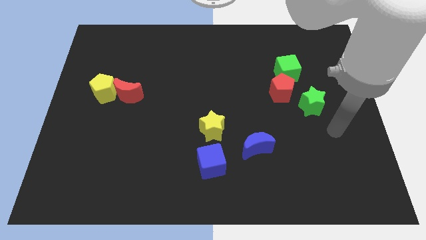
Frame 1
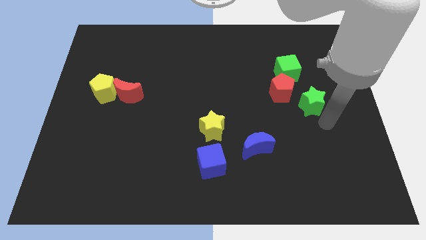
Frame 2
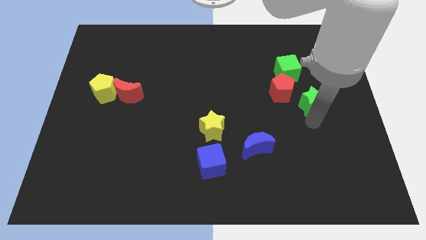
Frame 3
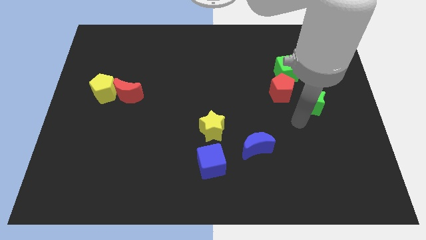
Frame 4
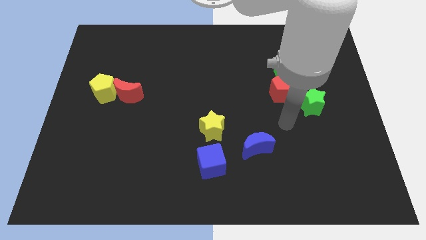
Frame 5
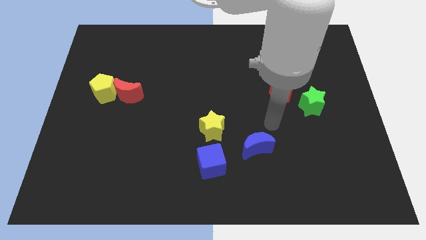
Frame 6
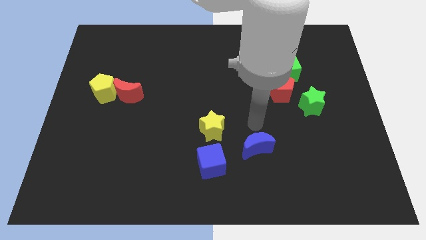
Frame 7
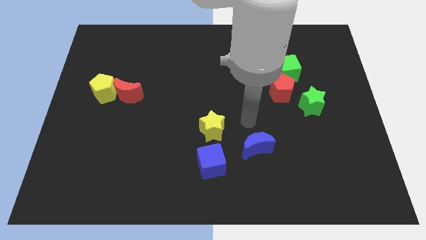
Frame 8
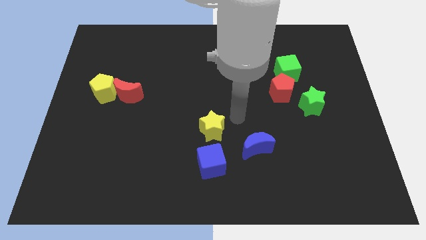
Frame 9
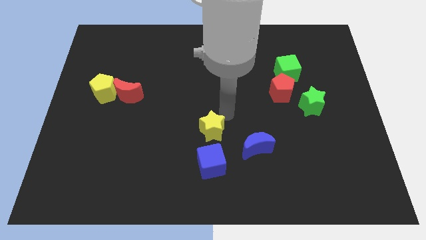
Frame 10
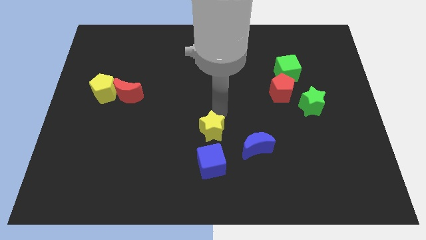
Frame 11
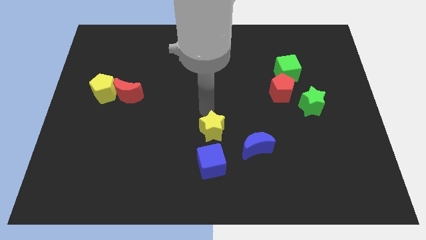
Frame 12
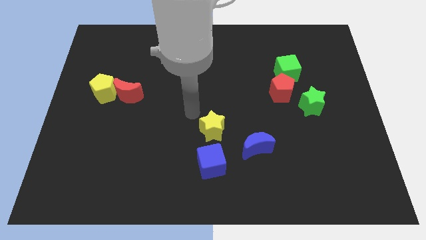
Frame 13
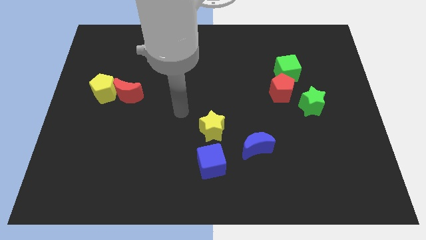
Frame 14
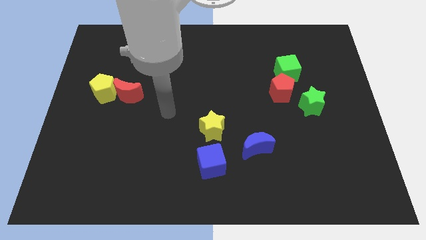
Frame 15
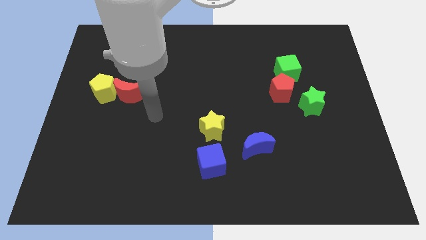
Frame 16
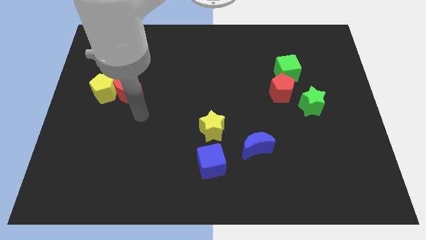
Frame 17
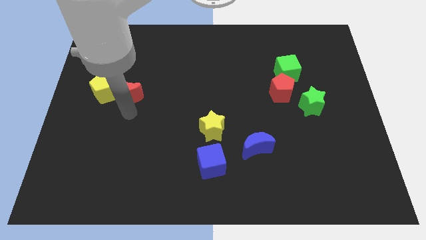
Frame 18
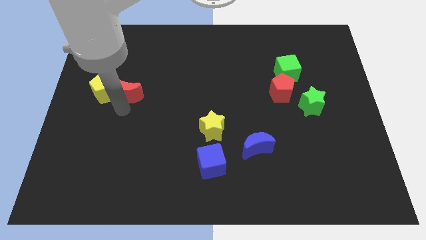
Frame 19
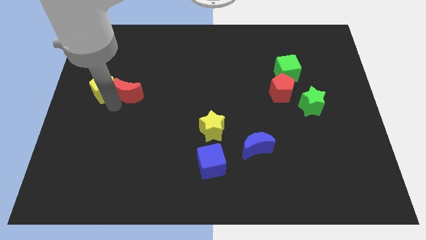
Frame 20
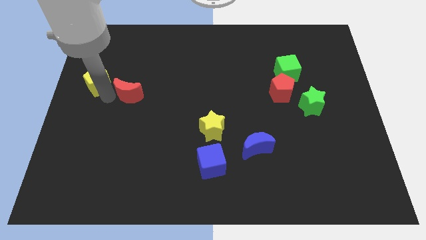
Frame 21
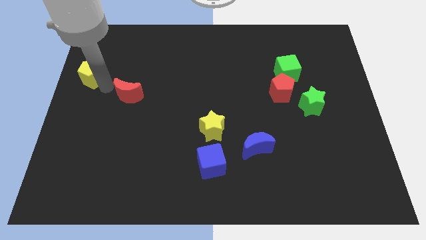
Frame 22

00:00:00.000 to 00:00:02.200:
separate the red moon from the yellow pentagon

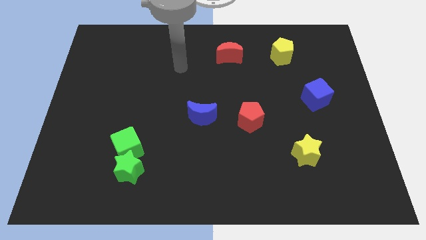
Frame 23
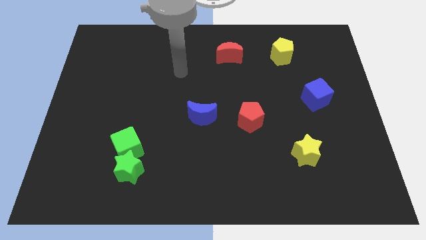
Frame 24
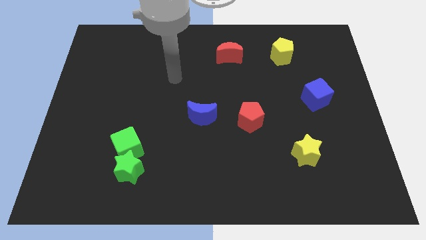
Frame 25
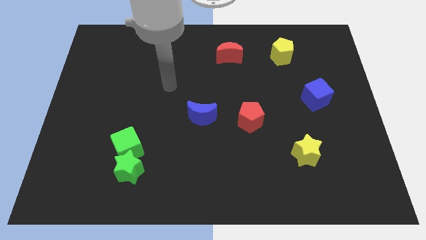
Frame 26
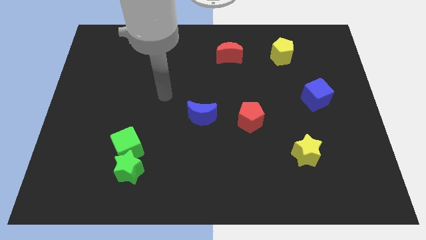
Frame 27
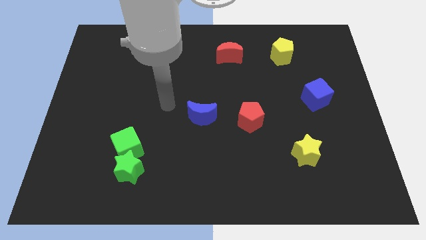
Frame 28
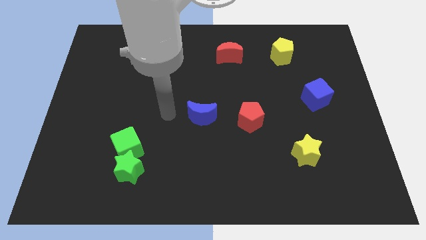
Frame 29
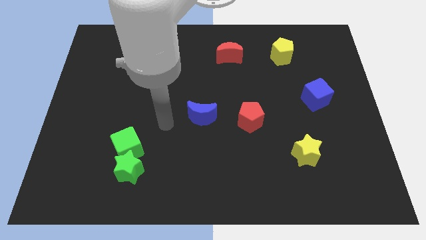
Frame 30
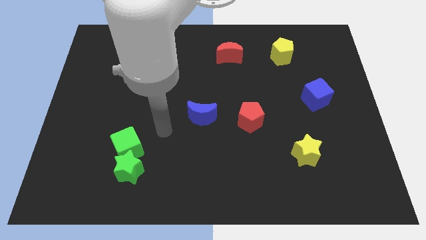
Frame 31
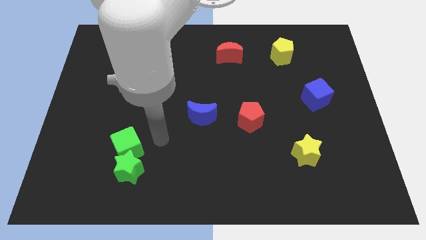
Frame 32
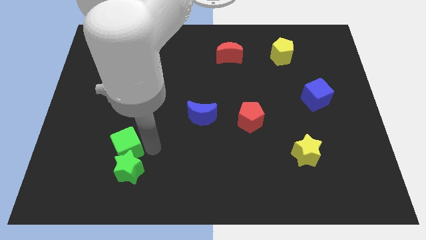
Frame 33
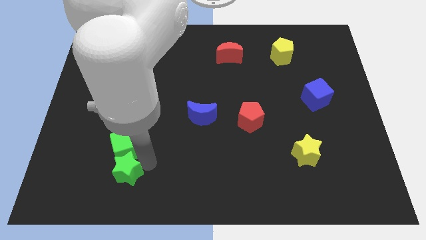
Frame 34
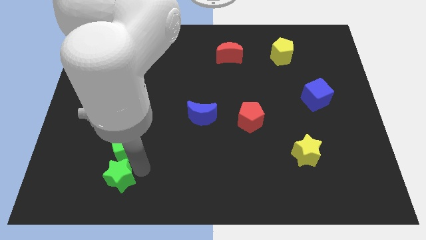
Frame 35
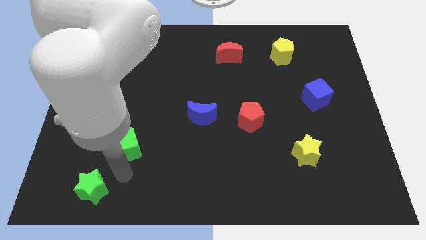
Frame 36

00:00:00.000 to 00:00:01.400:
move the green cube away from the green star

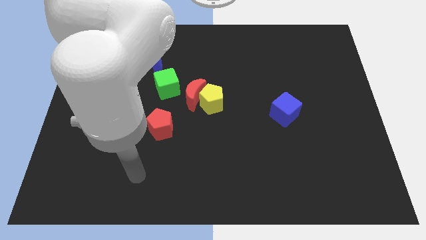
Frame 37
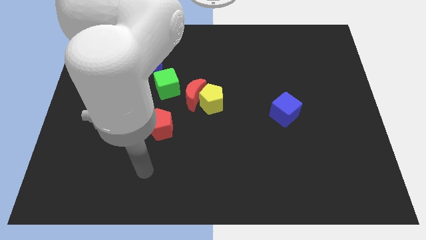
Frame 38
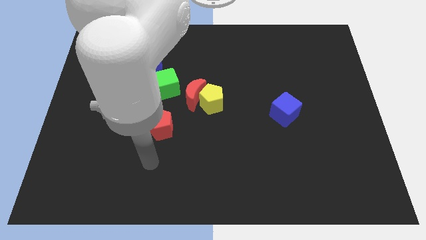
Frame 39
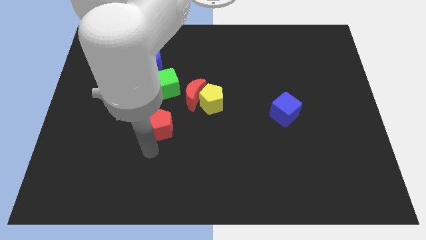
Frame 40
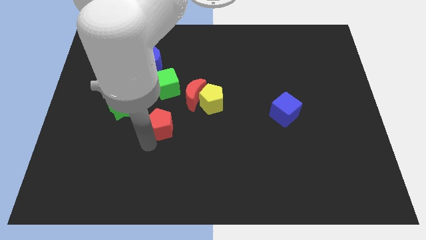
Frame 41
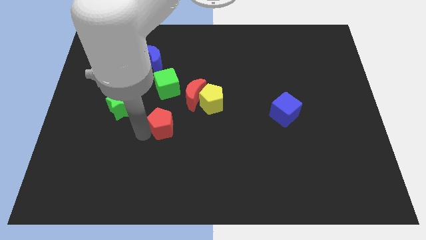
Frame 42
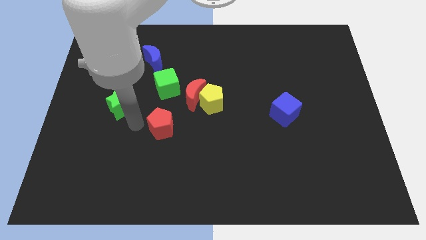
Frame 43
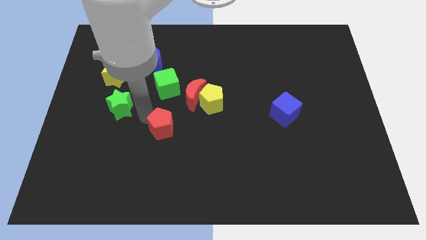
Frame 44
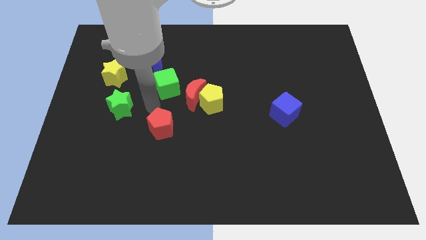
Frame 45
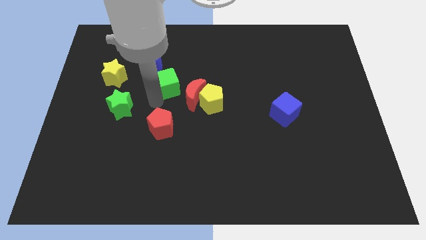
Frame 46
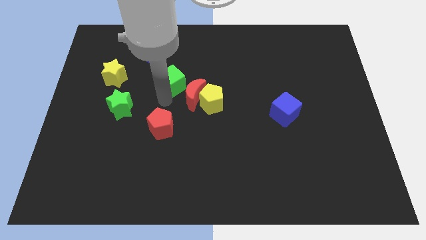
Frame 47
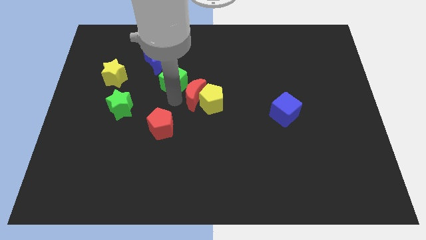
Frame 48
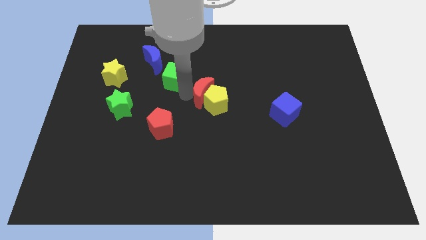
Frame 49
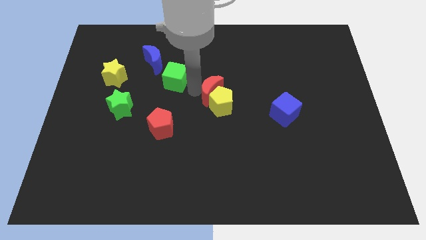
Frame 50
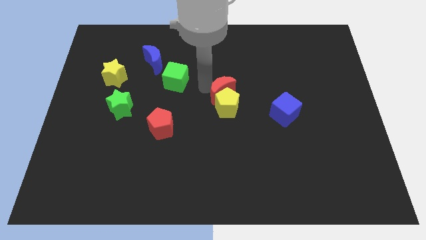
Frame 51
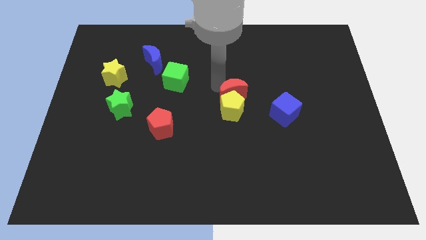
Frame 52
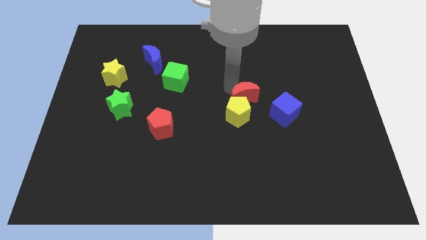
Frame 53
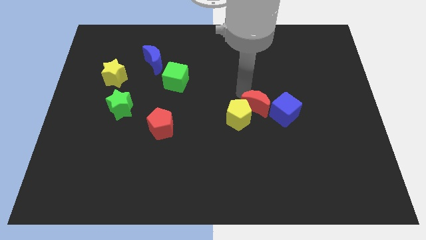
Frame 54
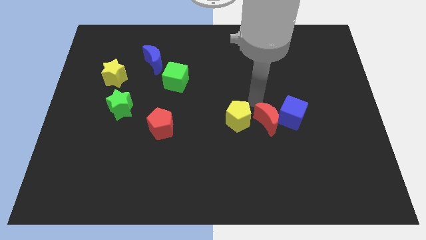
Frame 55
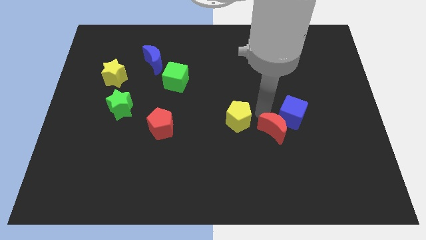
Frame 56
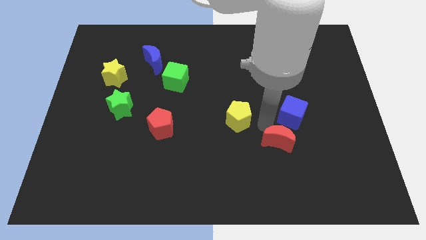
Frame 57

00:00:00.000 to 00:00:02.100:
pull the yellow pentagon apart from the red moon

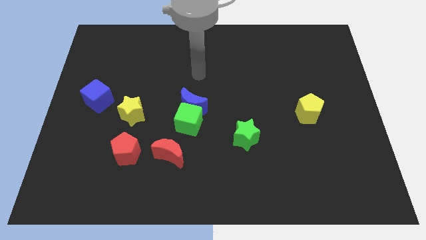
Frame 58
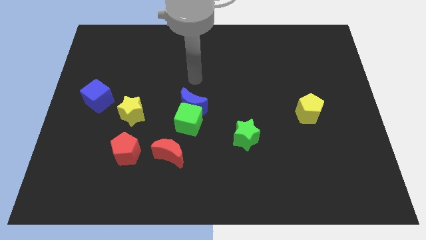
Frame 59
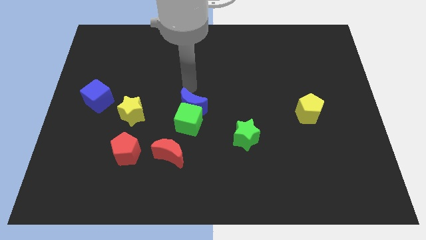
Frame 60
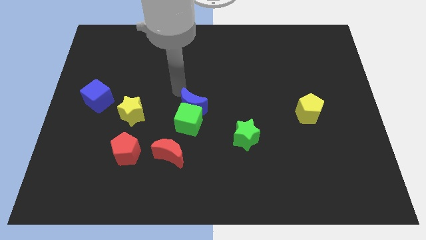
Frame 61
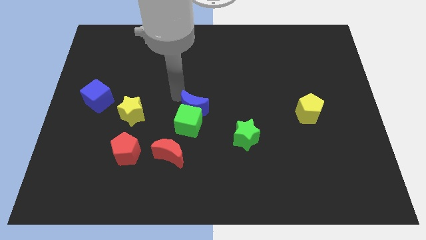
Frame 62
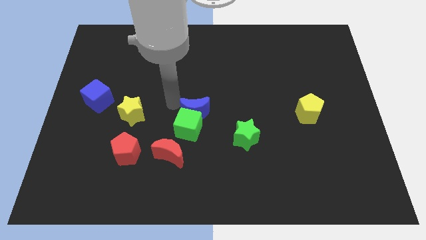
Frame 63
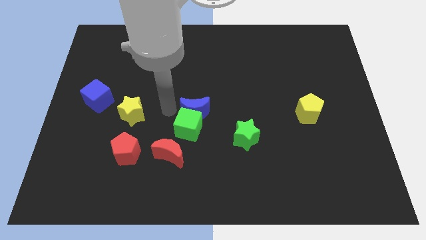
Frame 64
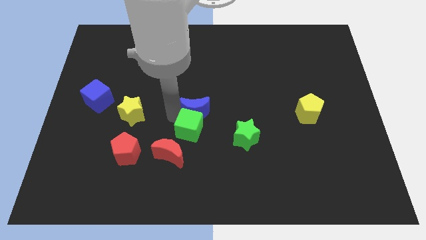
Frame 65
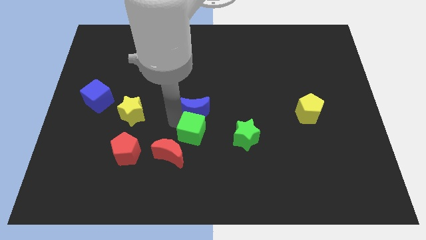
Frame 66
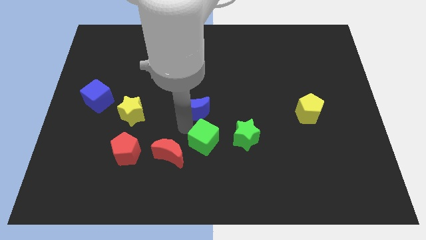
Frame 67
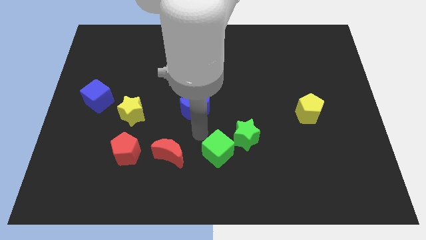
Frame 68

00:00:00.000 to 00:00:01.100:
move the blue moon away from the green cube

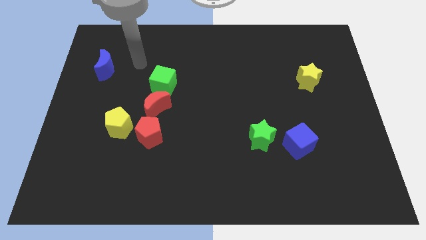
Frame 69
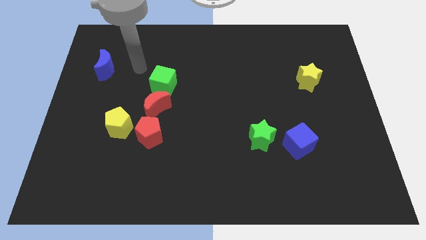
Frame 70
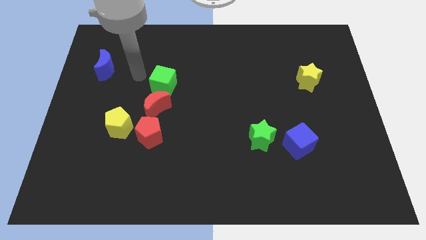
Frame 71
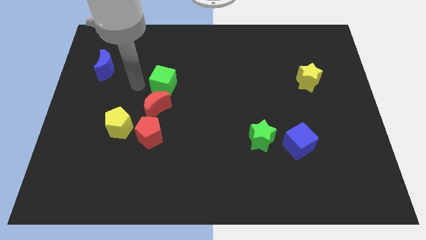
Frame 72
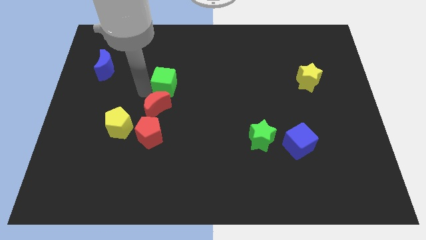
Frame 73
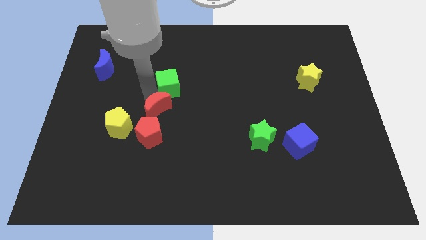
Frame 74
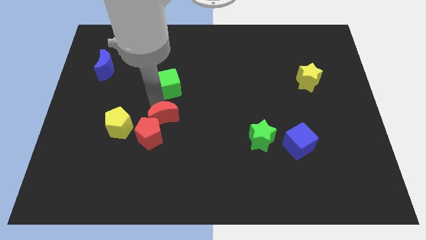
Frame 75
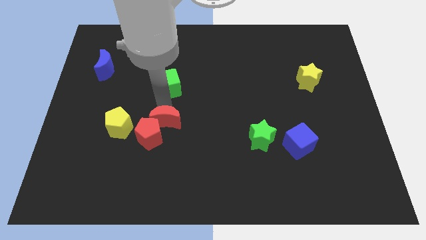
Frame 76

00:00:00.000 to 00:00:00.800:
separate the green cube from the red moon

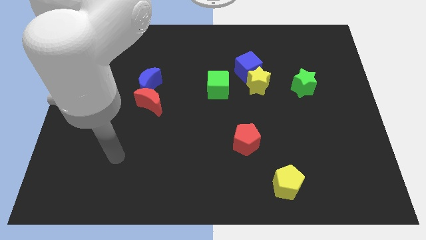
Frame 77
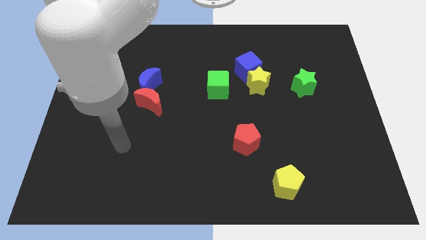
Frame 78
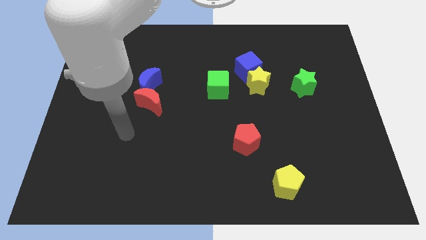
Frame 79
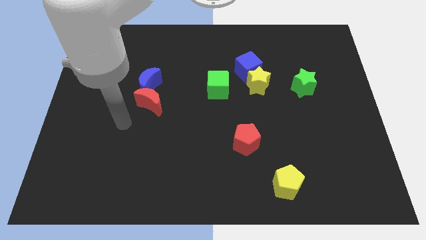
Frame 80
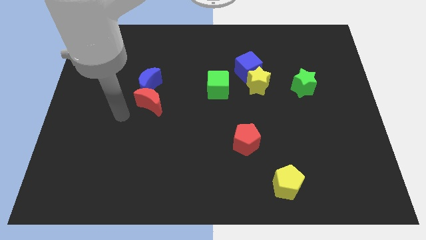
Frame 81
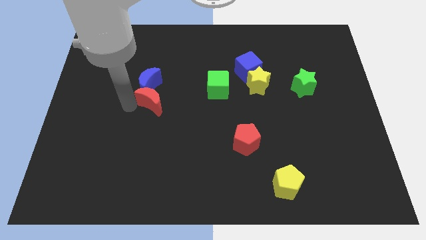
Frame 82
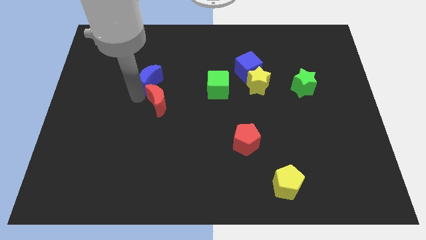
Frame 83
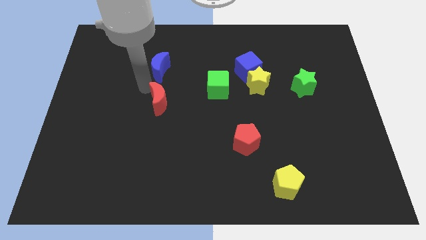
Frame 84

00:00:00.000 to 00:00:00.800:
separate the red moon from the blue moon

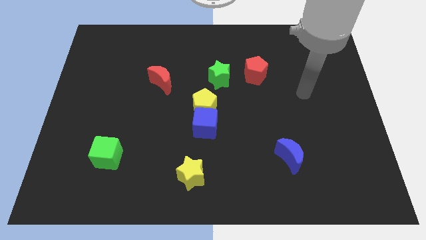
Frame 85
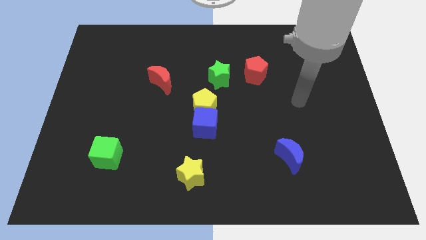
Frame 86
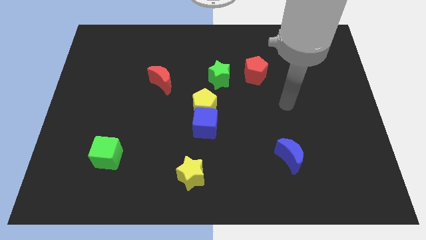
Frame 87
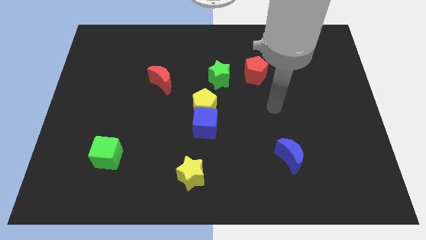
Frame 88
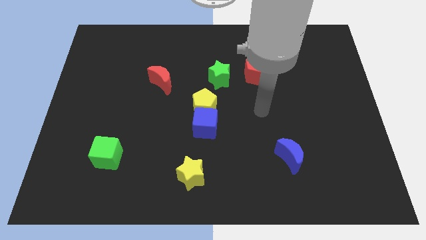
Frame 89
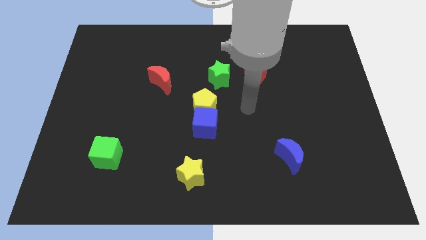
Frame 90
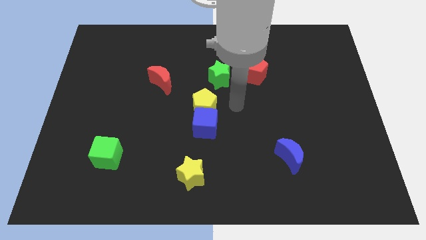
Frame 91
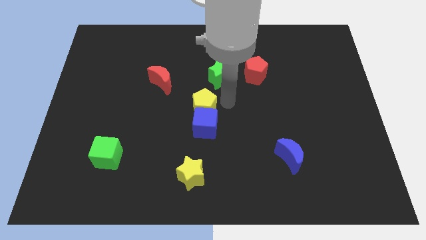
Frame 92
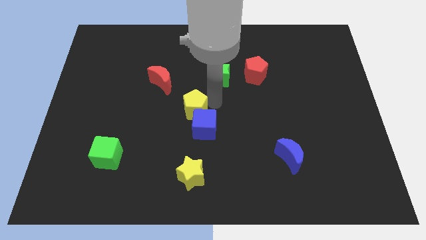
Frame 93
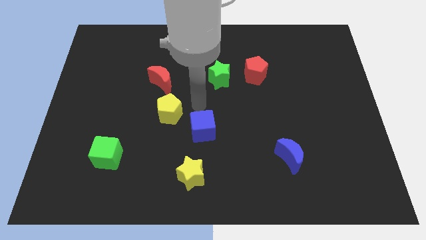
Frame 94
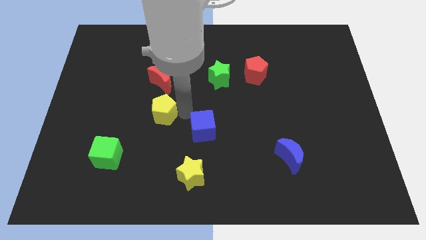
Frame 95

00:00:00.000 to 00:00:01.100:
pull the blue cube apart from the yellow pentagon
